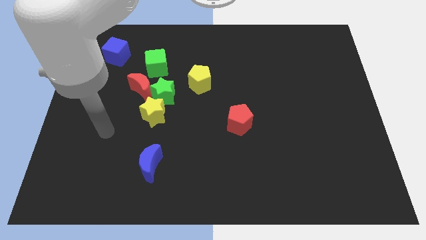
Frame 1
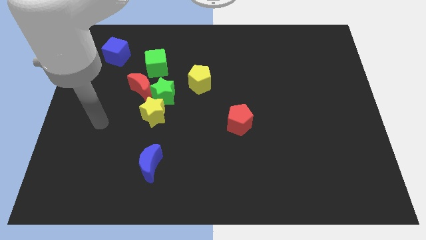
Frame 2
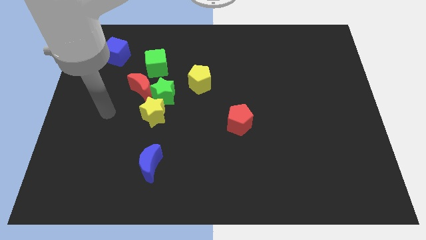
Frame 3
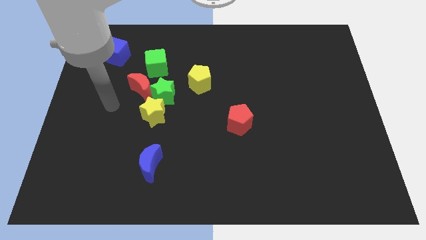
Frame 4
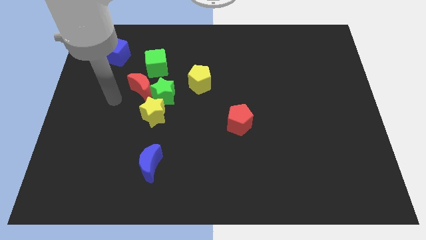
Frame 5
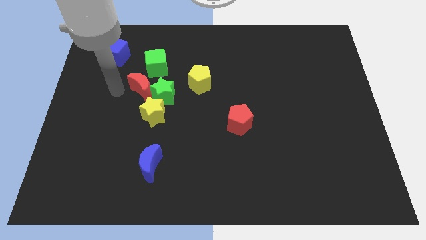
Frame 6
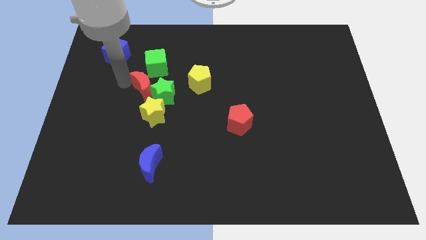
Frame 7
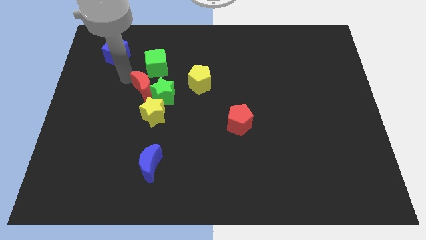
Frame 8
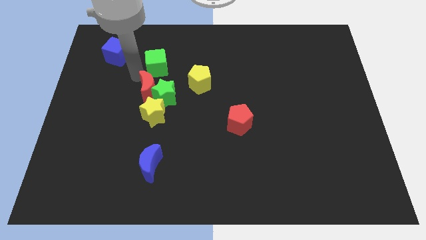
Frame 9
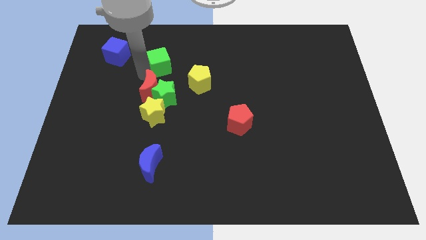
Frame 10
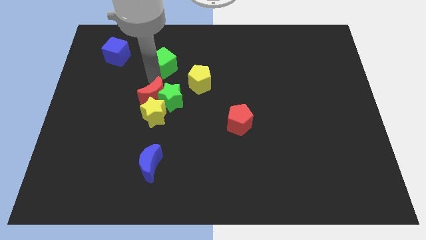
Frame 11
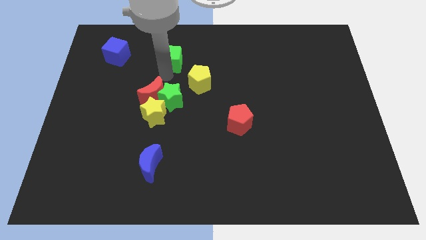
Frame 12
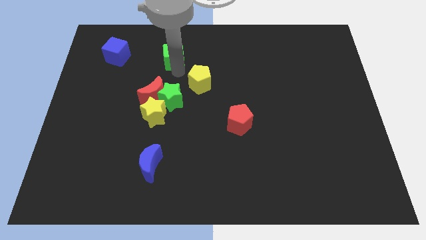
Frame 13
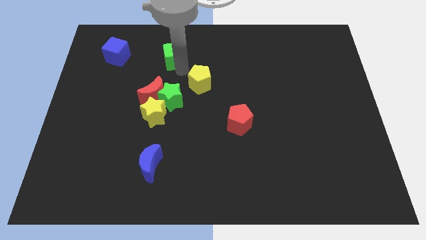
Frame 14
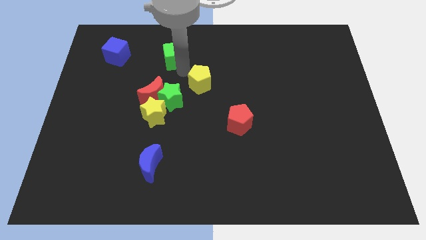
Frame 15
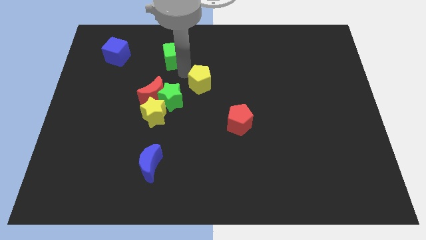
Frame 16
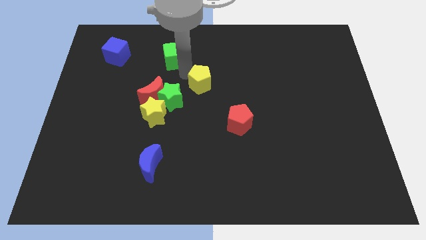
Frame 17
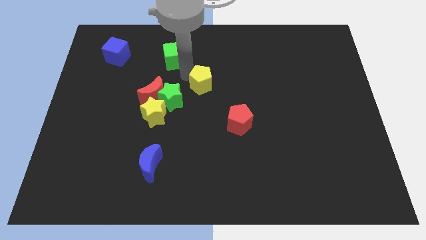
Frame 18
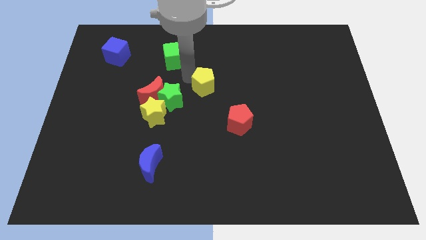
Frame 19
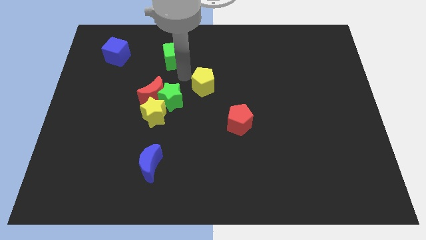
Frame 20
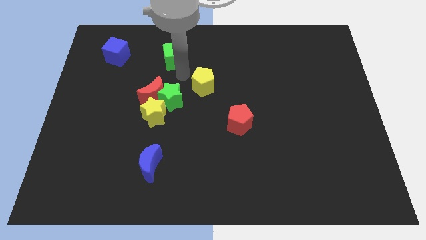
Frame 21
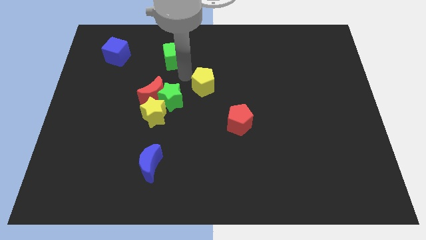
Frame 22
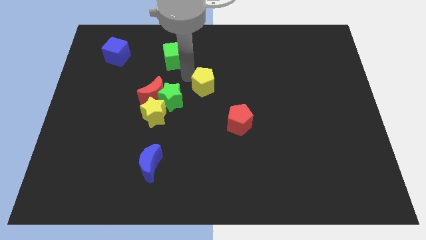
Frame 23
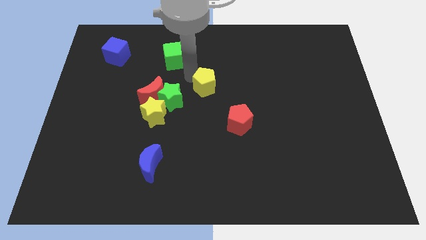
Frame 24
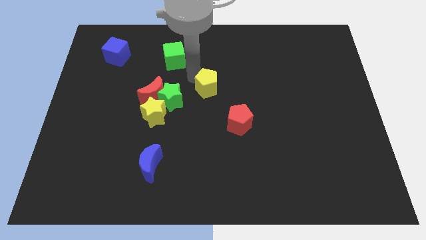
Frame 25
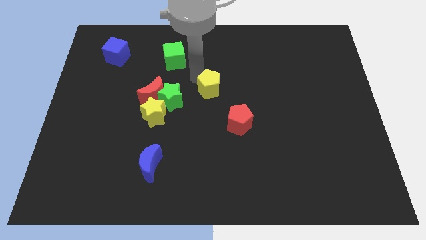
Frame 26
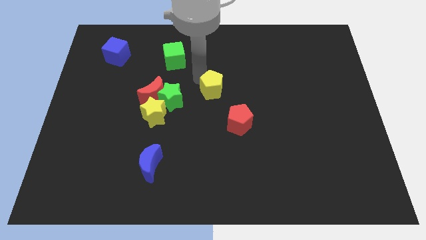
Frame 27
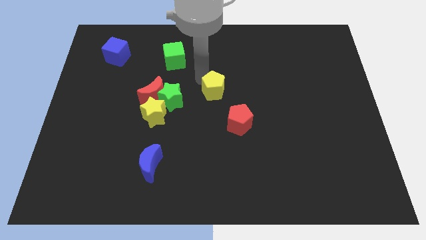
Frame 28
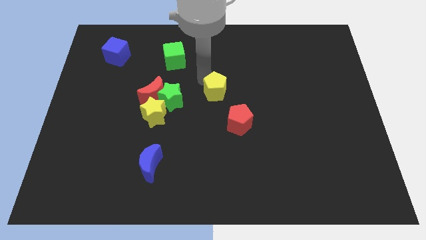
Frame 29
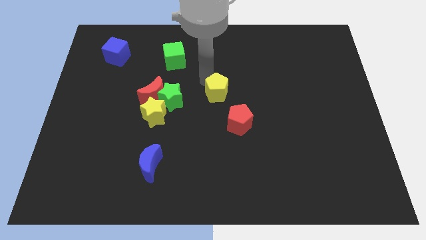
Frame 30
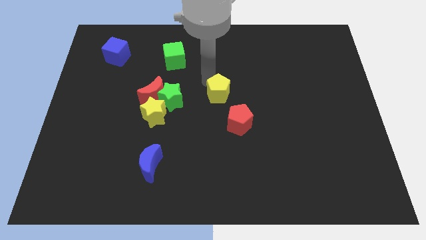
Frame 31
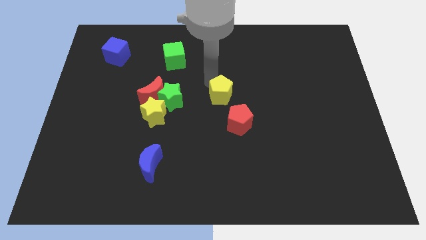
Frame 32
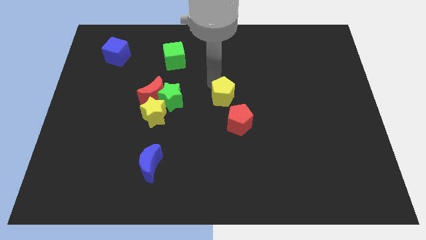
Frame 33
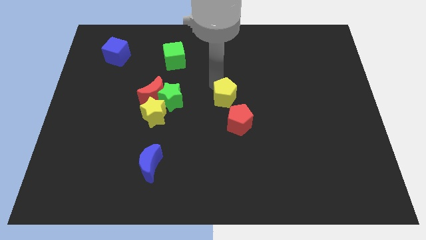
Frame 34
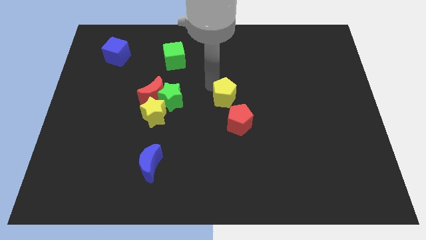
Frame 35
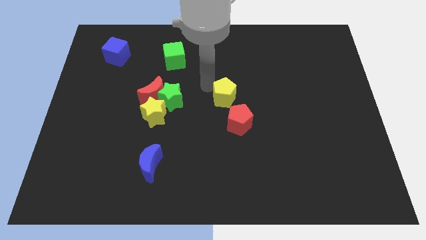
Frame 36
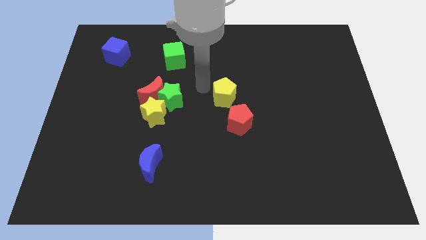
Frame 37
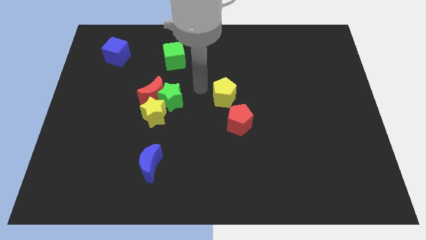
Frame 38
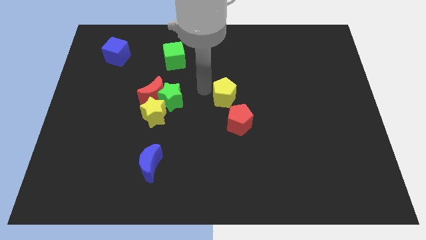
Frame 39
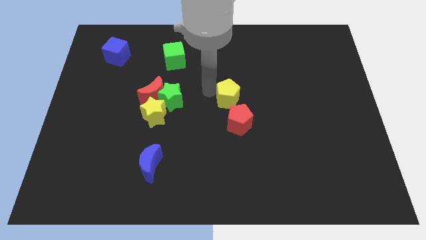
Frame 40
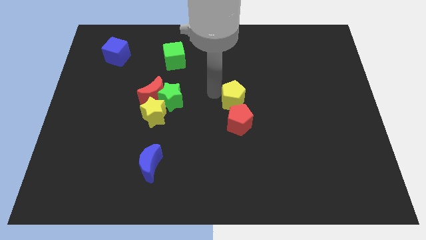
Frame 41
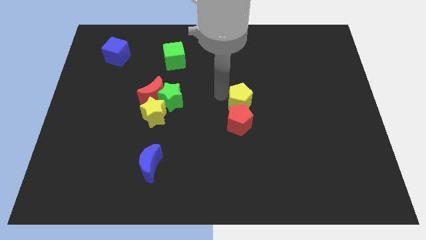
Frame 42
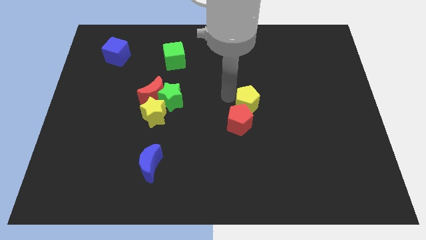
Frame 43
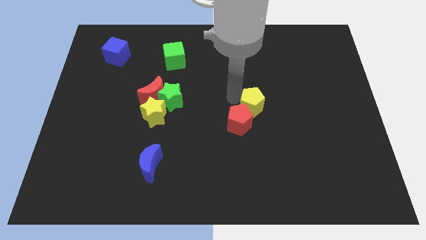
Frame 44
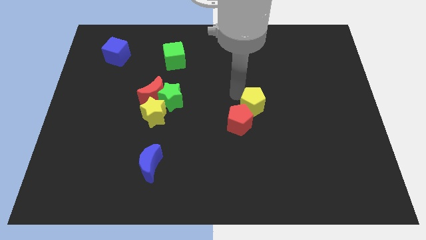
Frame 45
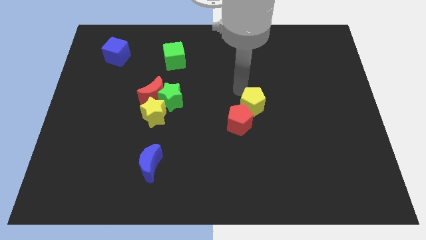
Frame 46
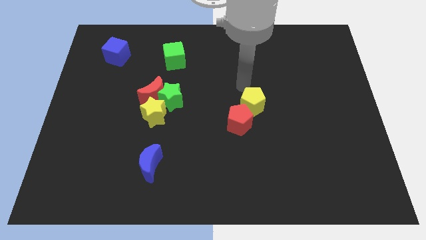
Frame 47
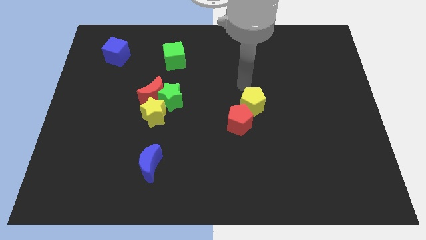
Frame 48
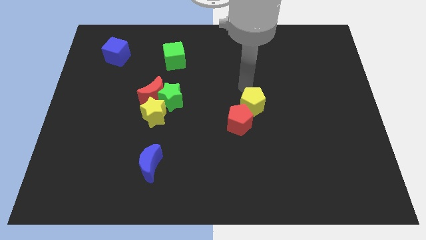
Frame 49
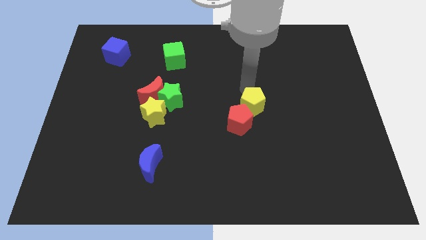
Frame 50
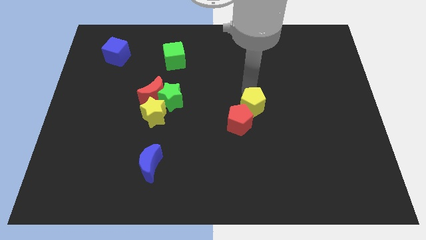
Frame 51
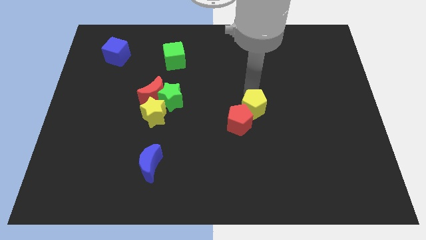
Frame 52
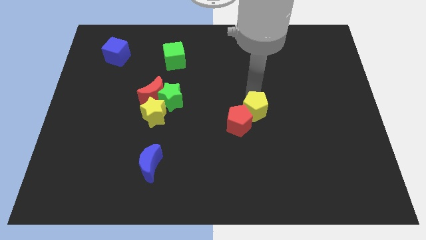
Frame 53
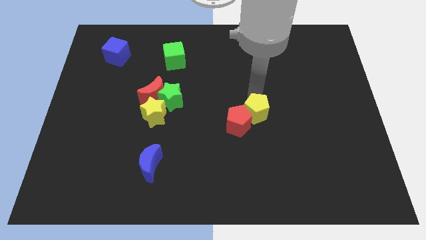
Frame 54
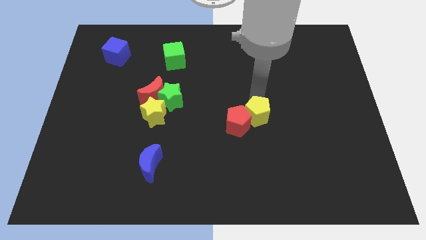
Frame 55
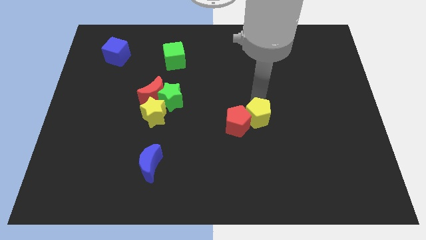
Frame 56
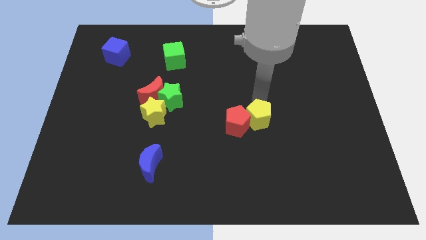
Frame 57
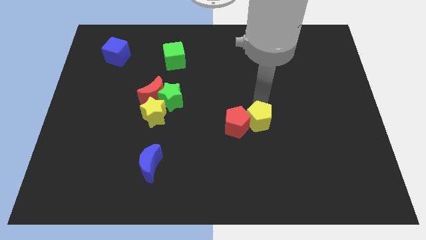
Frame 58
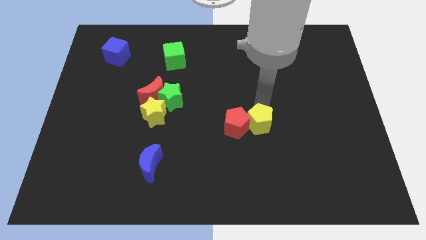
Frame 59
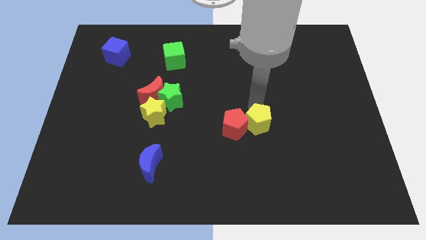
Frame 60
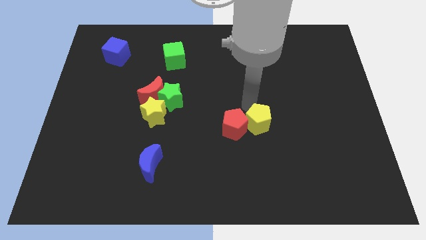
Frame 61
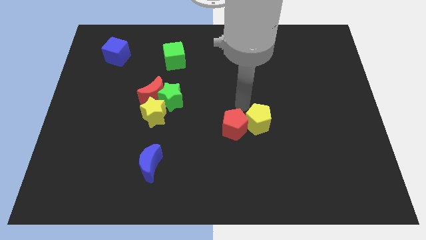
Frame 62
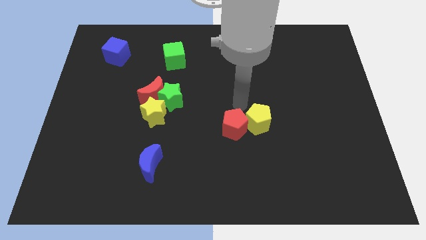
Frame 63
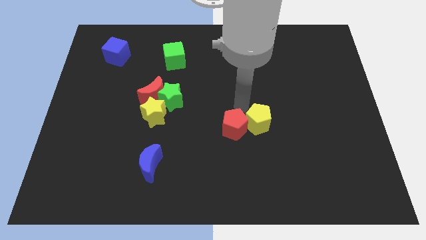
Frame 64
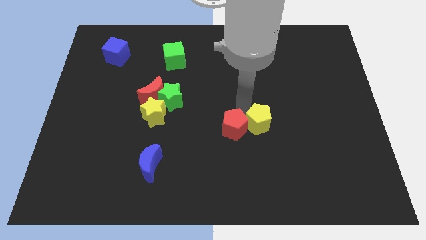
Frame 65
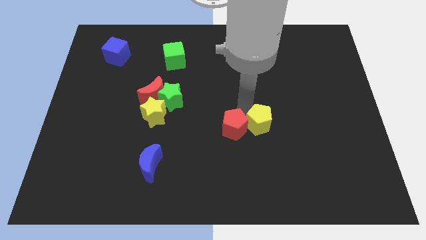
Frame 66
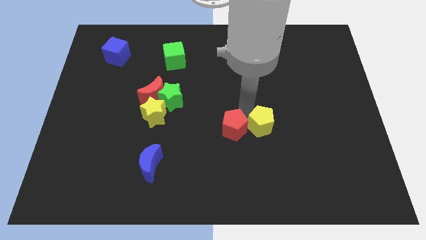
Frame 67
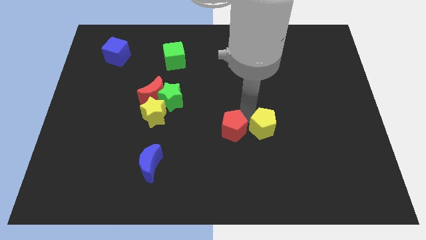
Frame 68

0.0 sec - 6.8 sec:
slide the yellow pentagon down and to the right

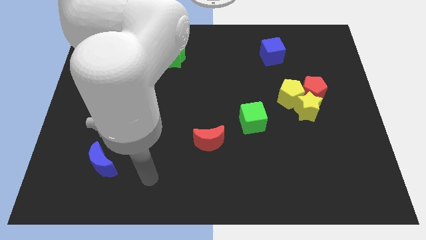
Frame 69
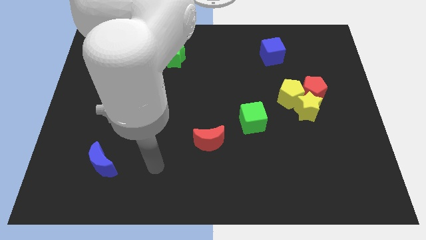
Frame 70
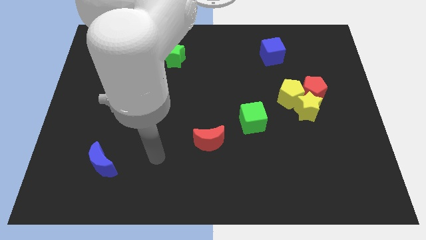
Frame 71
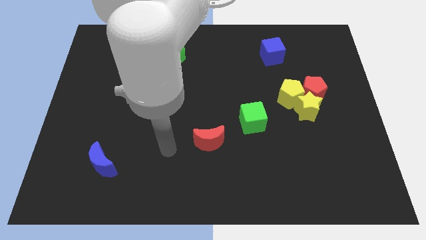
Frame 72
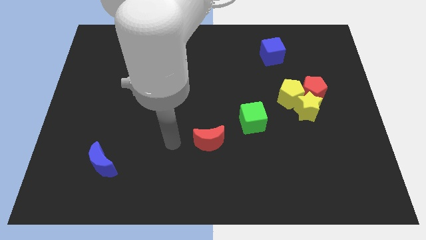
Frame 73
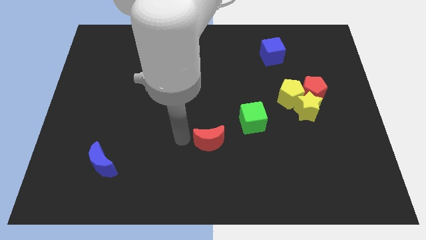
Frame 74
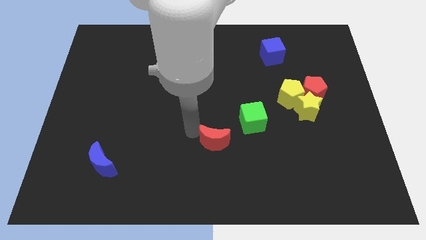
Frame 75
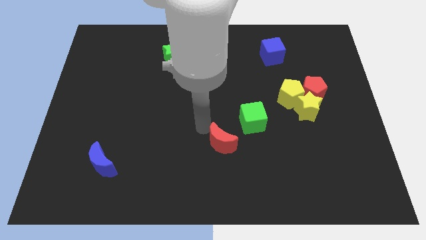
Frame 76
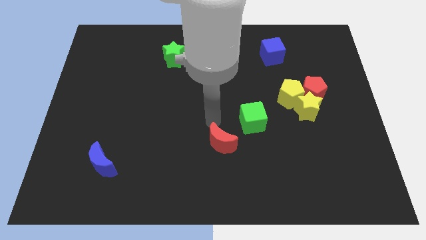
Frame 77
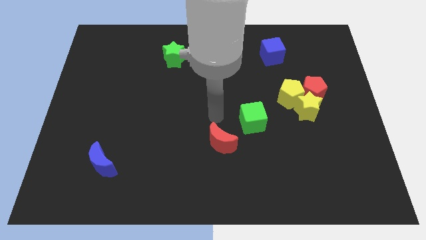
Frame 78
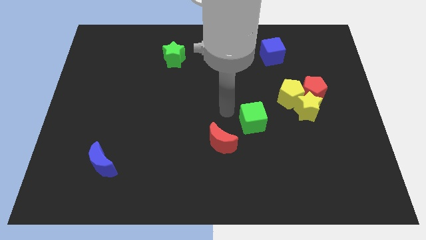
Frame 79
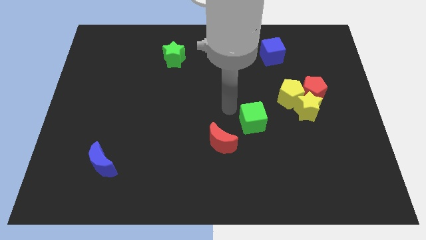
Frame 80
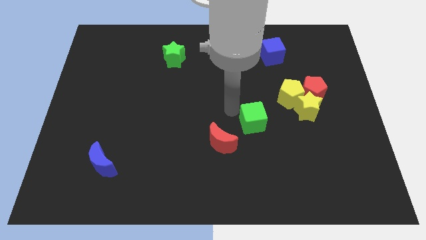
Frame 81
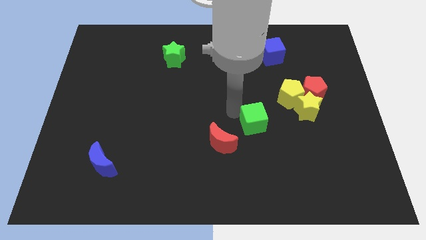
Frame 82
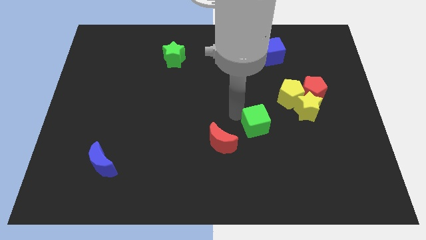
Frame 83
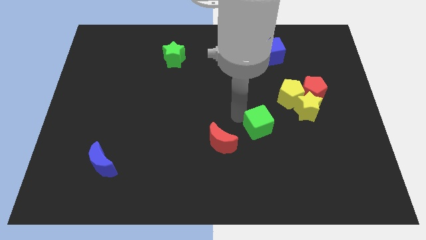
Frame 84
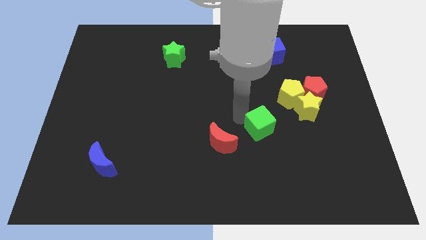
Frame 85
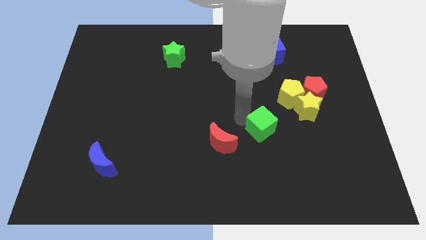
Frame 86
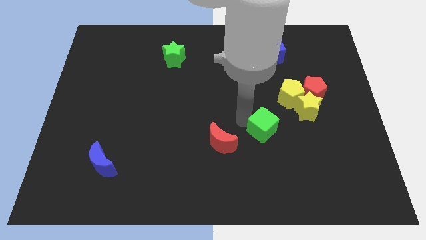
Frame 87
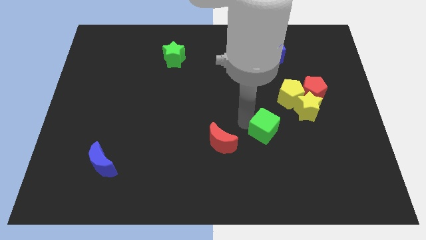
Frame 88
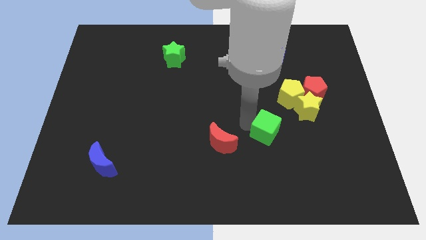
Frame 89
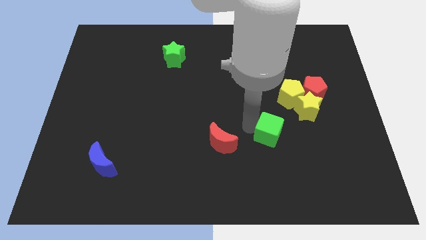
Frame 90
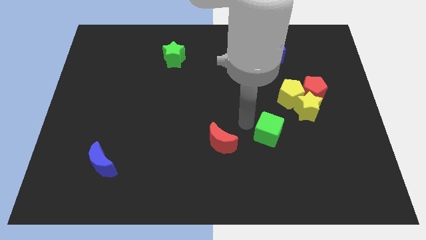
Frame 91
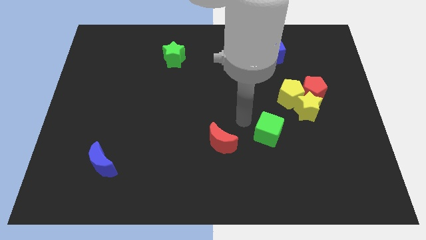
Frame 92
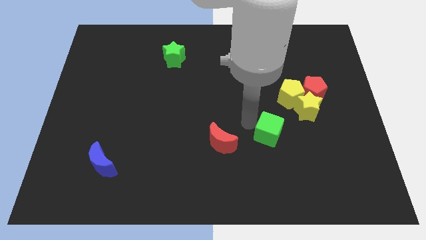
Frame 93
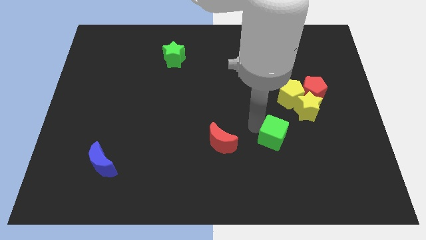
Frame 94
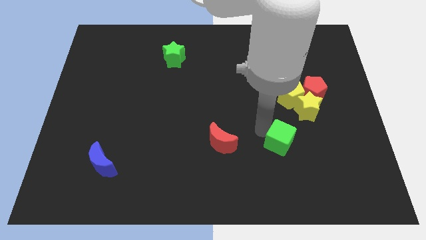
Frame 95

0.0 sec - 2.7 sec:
move the green cube a little bit diagonally downwards and right
